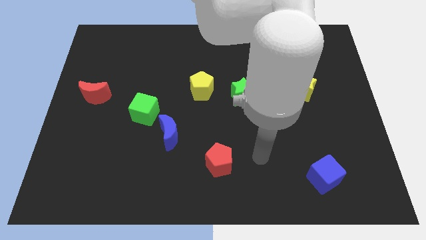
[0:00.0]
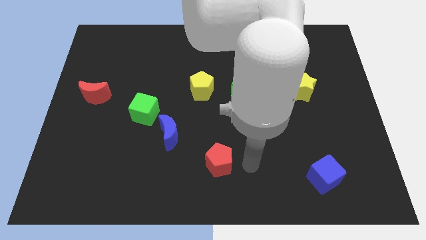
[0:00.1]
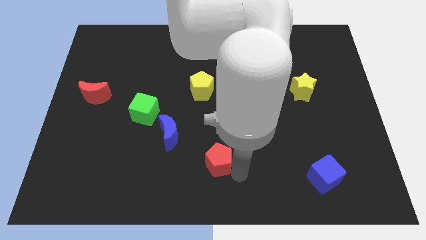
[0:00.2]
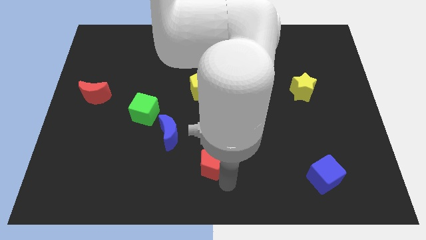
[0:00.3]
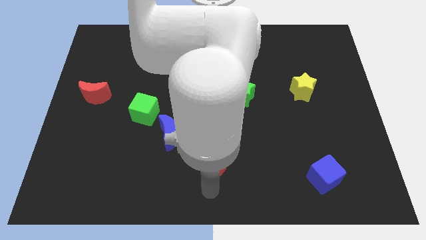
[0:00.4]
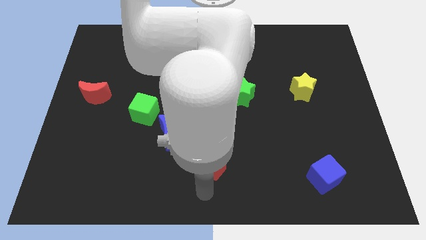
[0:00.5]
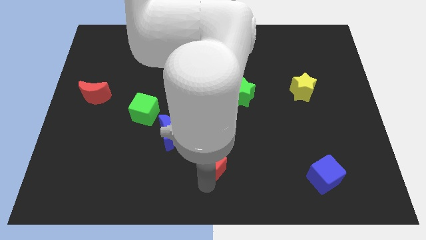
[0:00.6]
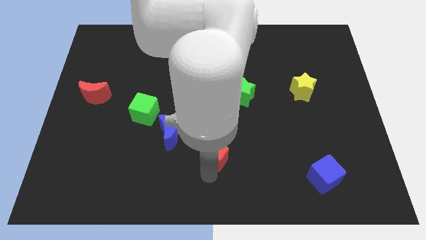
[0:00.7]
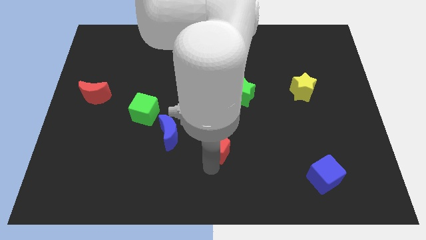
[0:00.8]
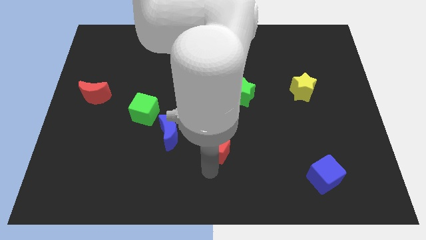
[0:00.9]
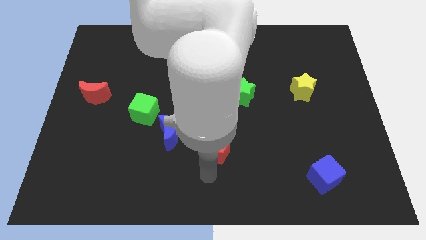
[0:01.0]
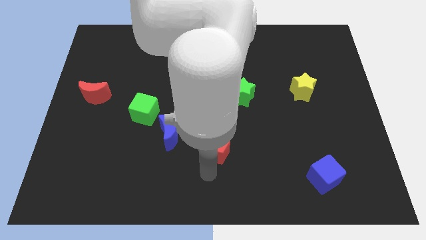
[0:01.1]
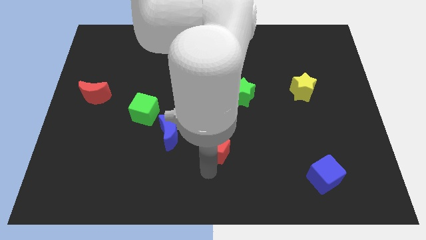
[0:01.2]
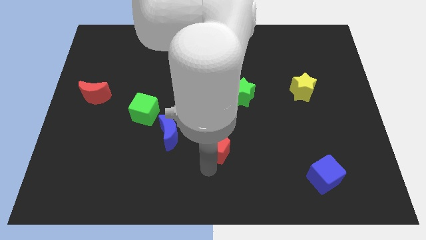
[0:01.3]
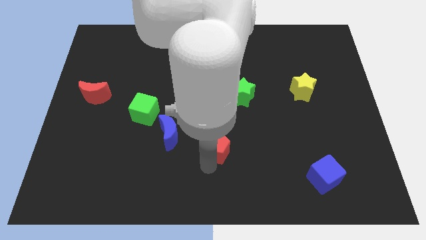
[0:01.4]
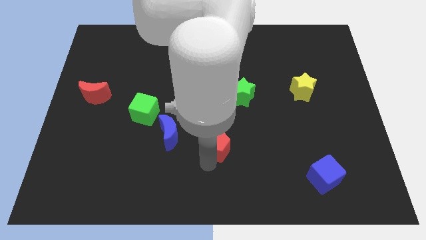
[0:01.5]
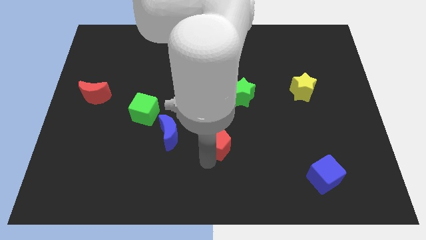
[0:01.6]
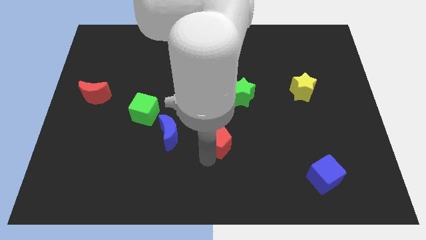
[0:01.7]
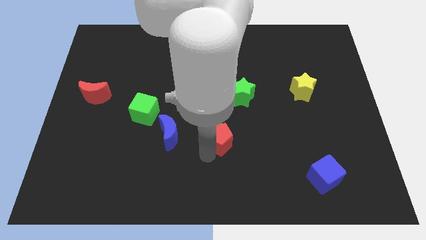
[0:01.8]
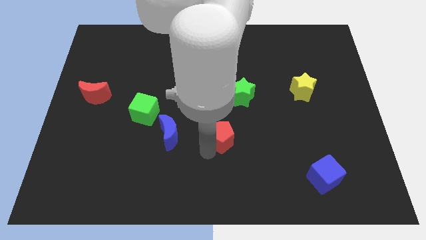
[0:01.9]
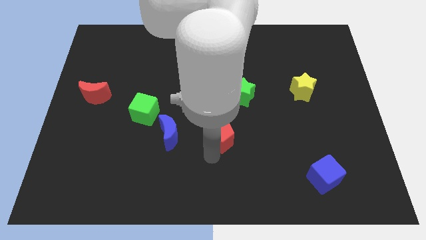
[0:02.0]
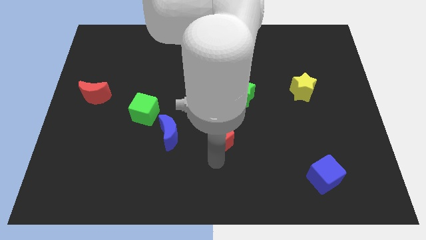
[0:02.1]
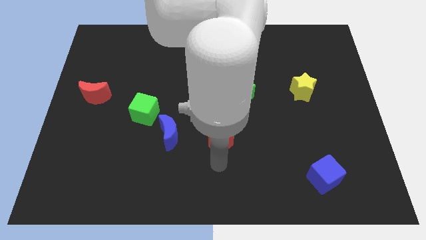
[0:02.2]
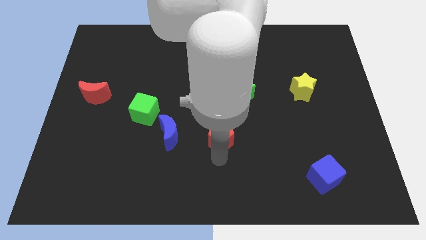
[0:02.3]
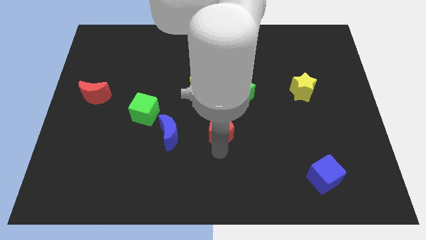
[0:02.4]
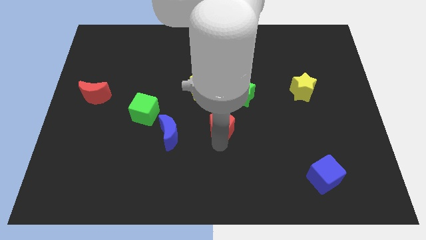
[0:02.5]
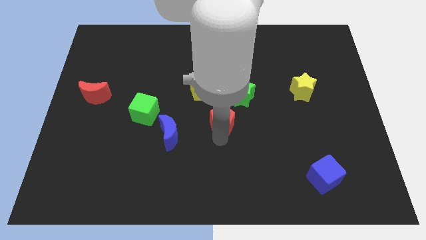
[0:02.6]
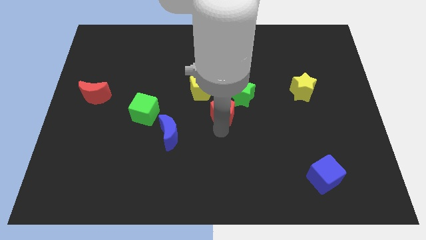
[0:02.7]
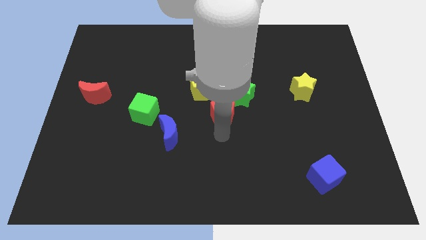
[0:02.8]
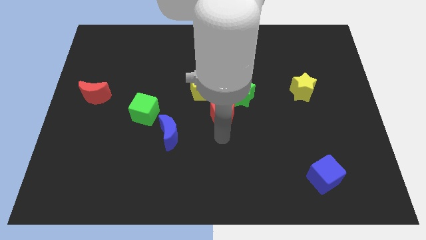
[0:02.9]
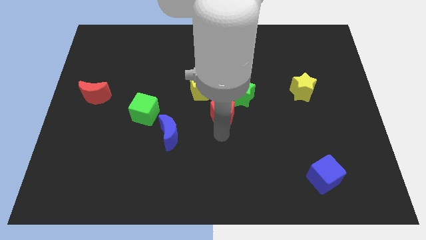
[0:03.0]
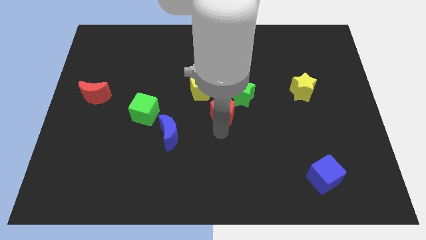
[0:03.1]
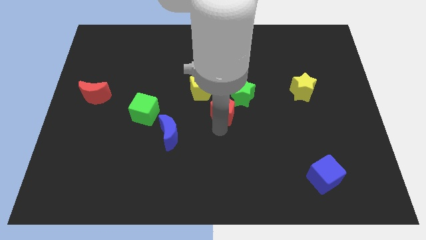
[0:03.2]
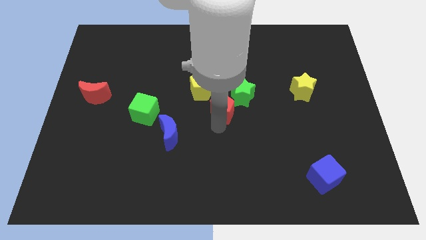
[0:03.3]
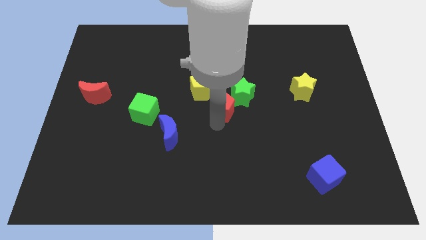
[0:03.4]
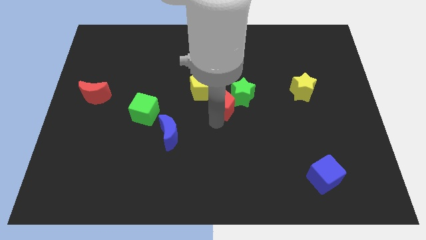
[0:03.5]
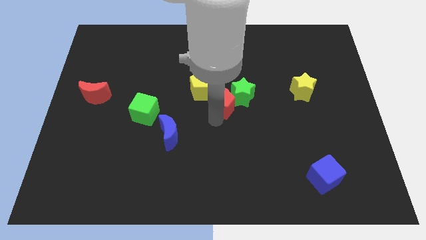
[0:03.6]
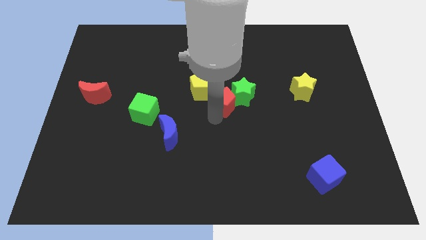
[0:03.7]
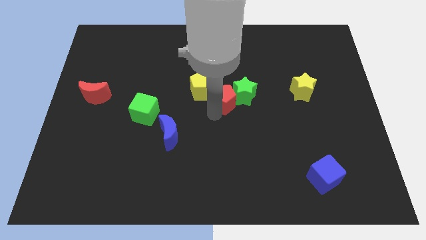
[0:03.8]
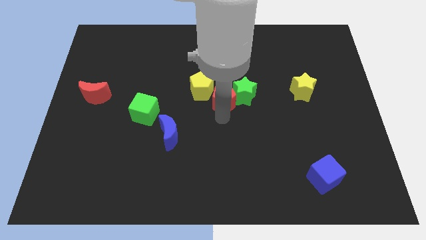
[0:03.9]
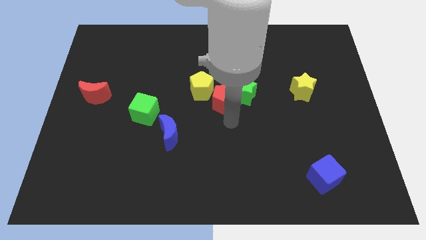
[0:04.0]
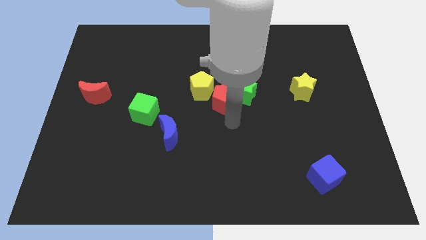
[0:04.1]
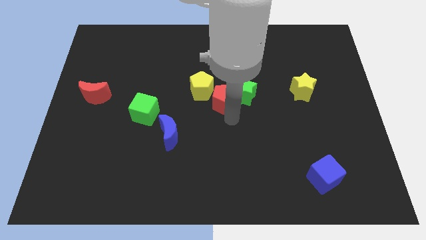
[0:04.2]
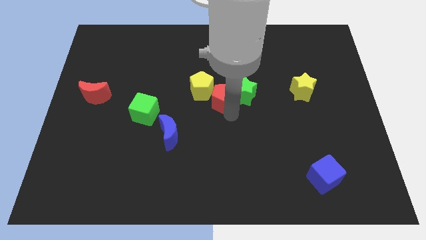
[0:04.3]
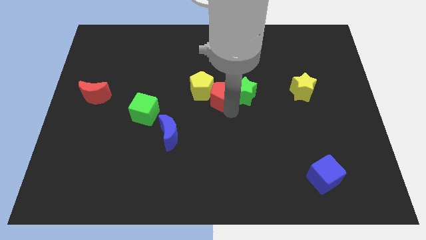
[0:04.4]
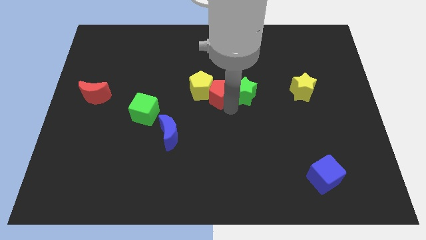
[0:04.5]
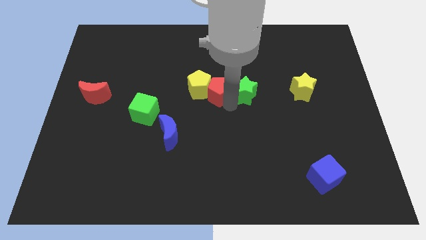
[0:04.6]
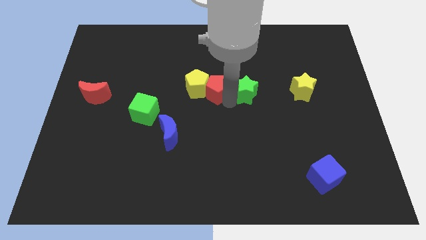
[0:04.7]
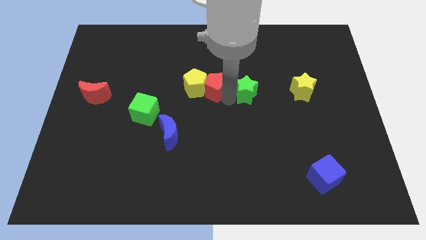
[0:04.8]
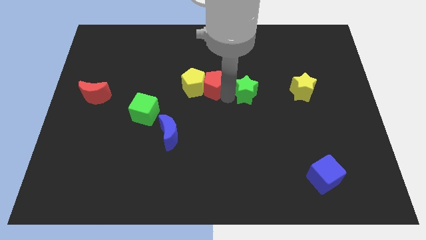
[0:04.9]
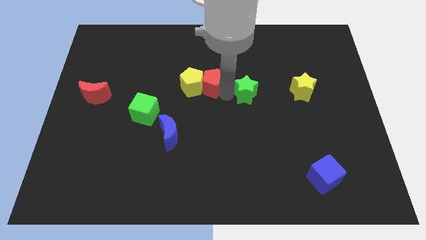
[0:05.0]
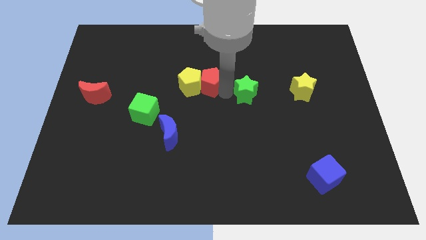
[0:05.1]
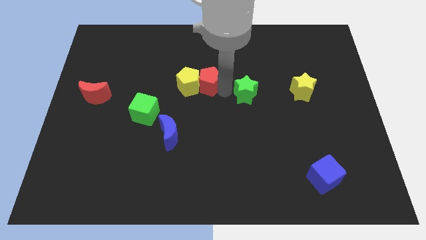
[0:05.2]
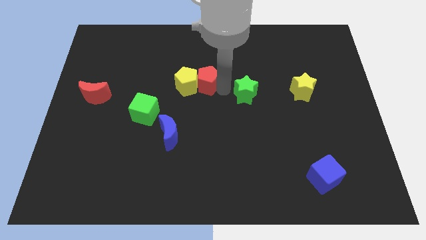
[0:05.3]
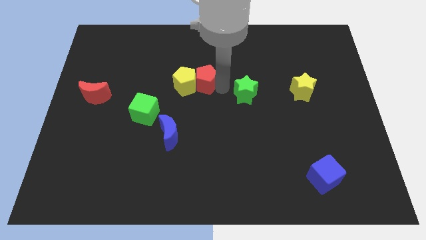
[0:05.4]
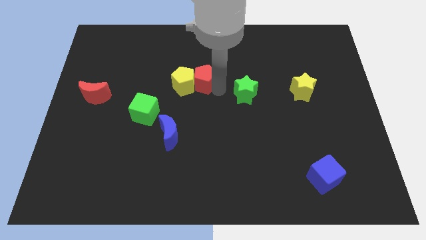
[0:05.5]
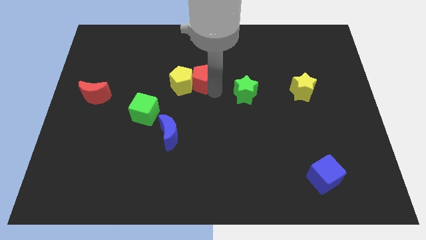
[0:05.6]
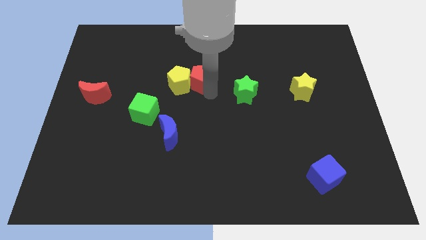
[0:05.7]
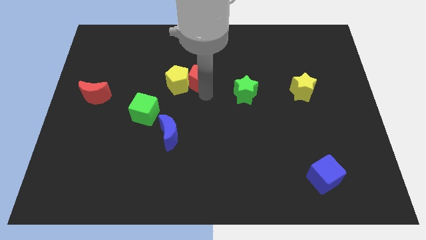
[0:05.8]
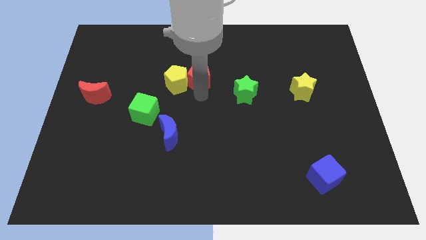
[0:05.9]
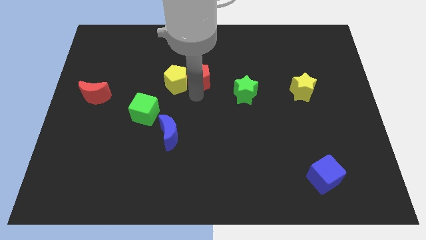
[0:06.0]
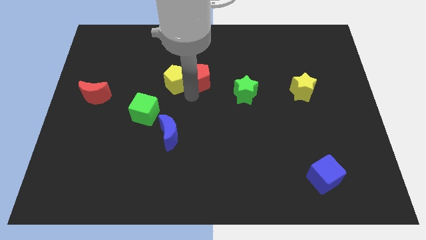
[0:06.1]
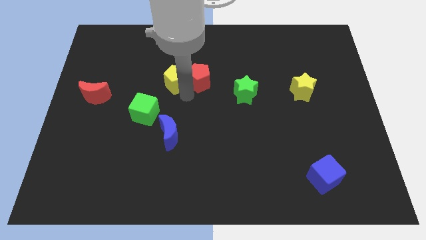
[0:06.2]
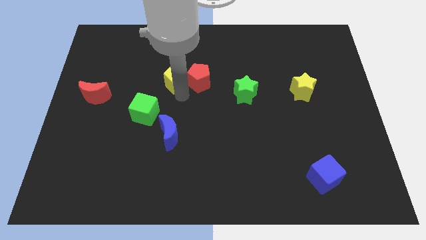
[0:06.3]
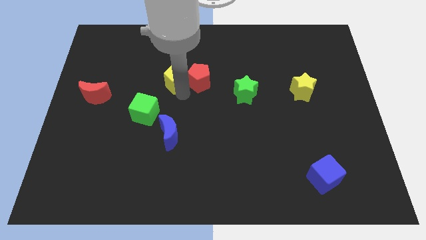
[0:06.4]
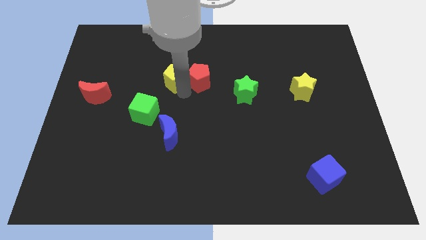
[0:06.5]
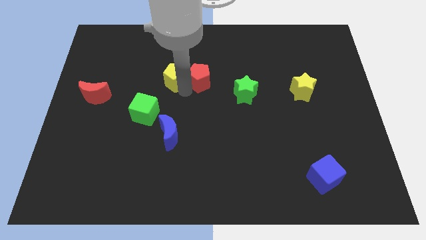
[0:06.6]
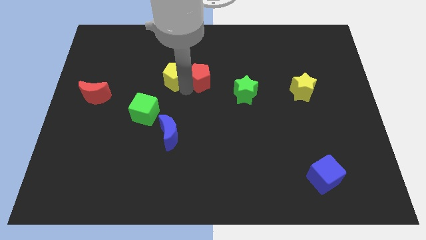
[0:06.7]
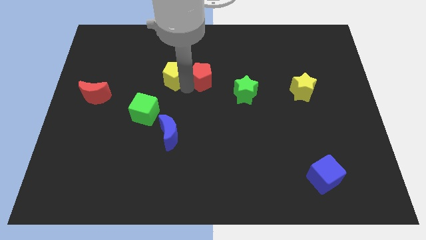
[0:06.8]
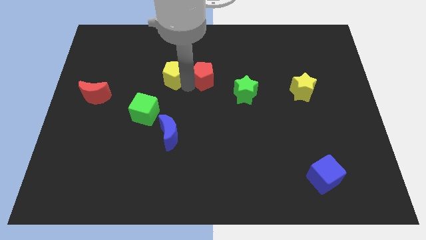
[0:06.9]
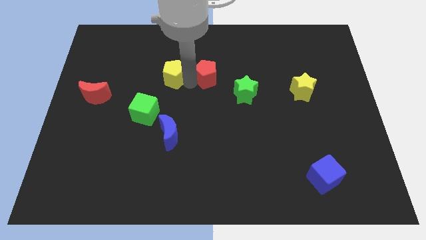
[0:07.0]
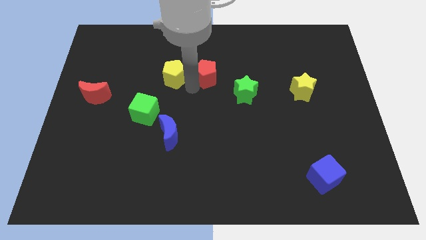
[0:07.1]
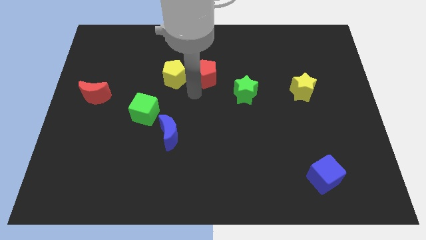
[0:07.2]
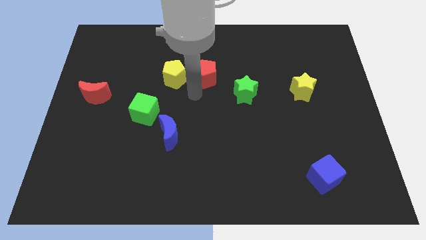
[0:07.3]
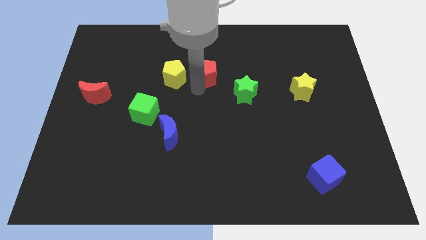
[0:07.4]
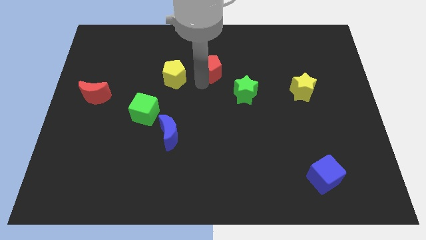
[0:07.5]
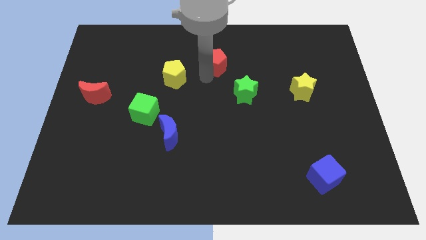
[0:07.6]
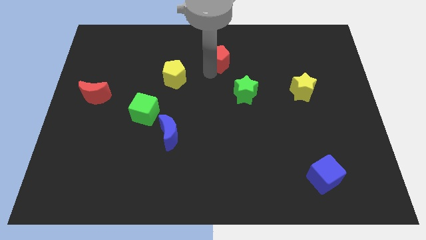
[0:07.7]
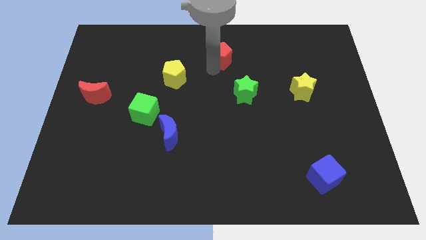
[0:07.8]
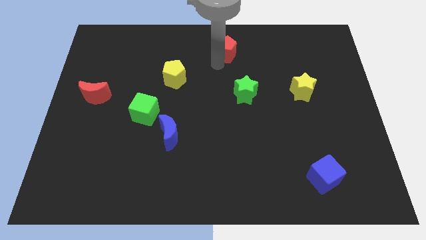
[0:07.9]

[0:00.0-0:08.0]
put the red pentagon to the top side
